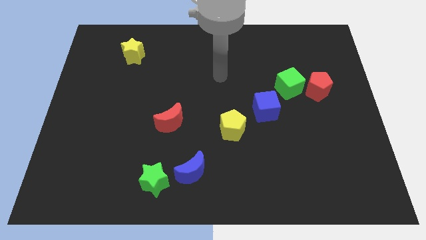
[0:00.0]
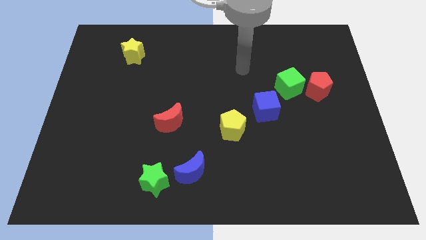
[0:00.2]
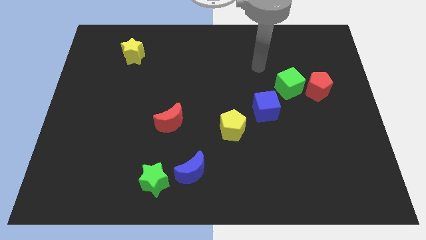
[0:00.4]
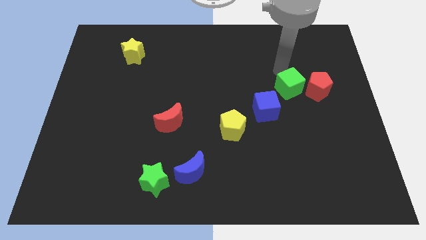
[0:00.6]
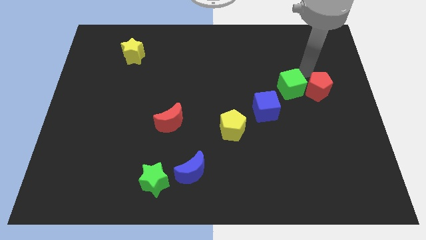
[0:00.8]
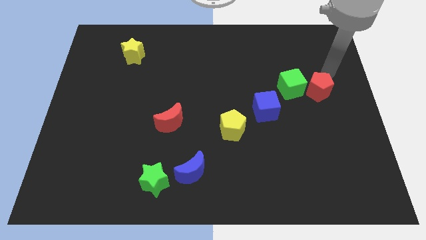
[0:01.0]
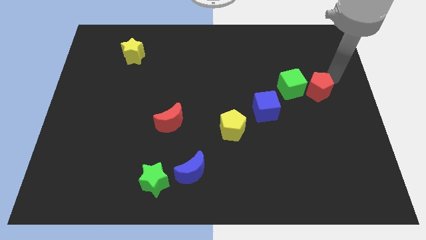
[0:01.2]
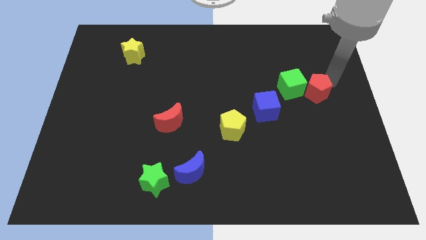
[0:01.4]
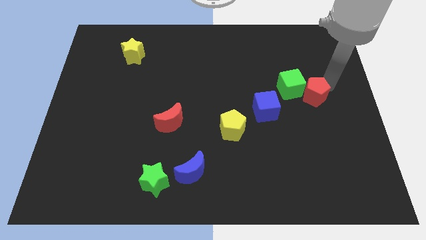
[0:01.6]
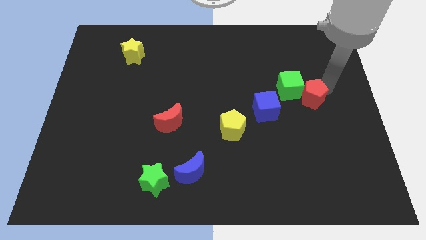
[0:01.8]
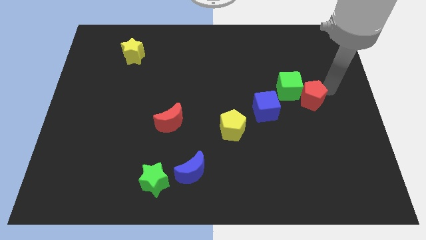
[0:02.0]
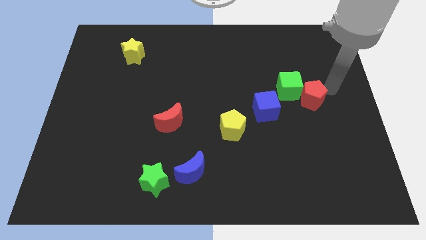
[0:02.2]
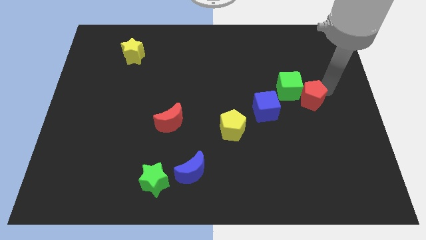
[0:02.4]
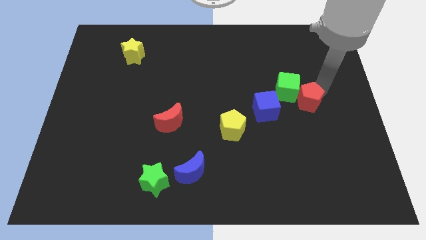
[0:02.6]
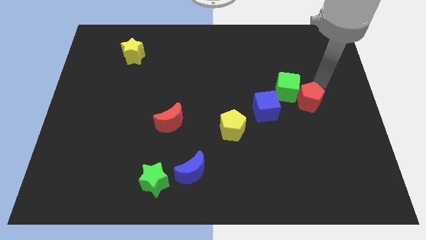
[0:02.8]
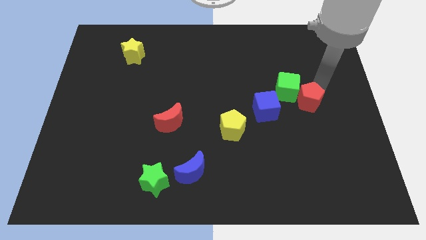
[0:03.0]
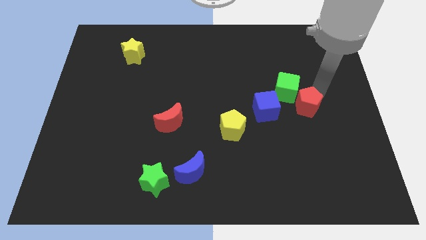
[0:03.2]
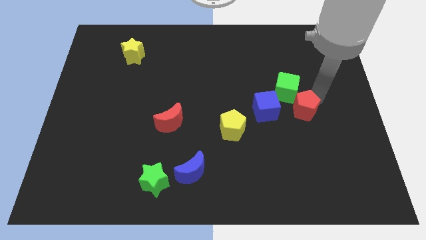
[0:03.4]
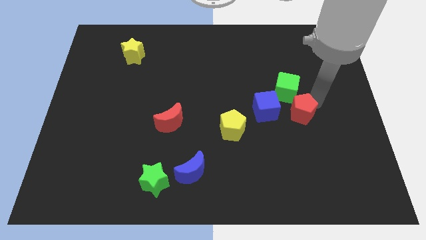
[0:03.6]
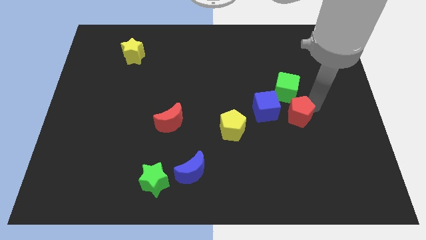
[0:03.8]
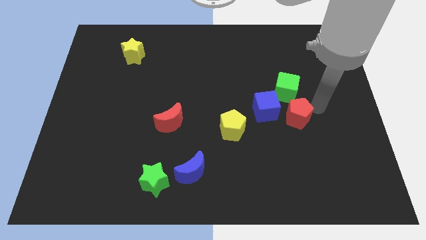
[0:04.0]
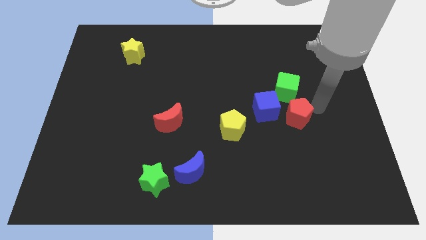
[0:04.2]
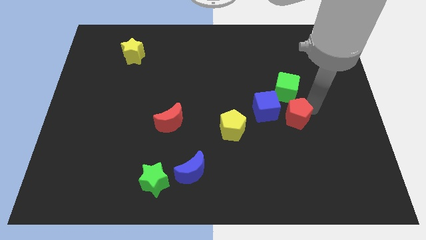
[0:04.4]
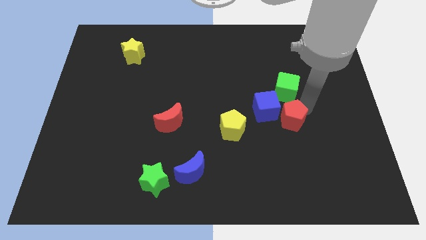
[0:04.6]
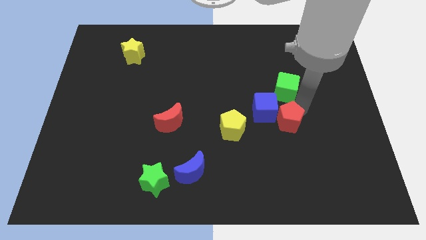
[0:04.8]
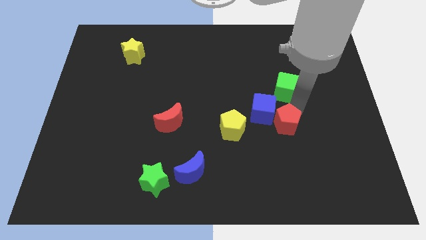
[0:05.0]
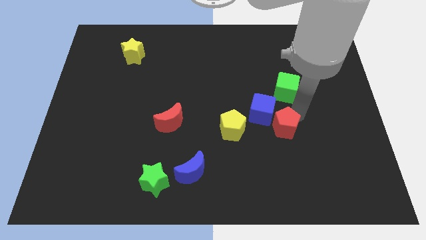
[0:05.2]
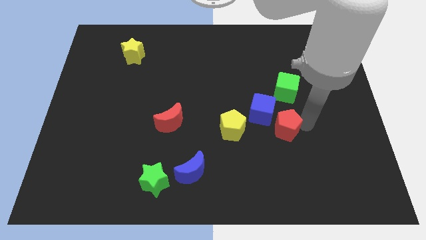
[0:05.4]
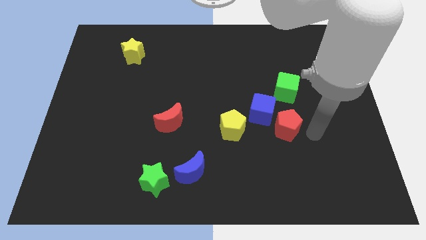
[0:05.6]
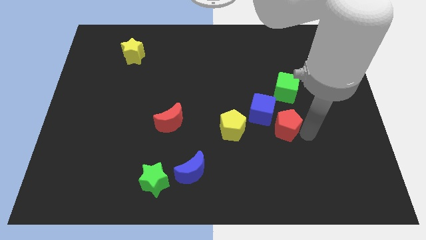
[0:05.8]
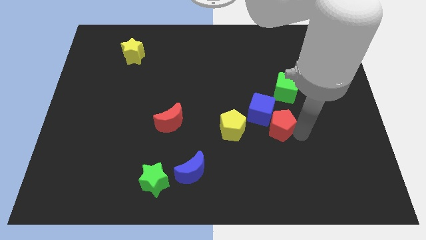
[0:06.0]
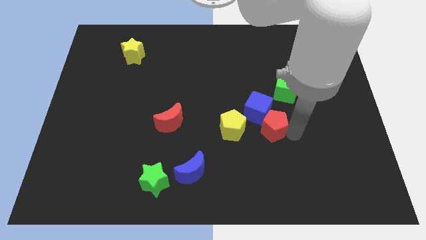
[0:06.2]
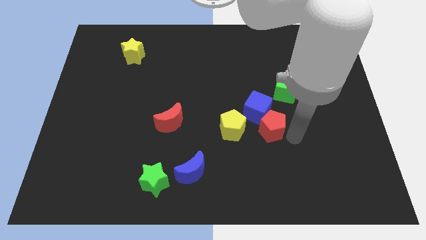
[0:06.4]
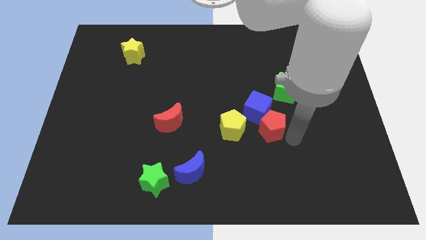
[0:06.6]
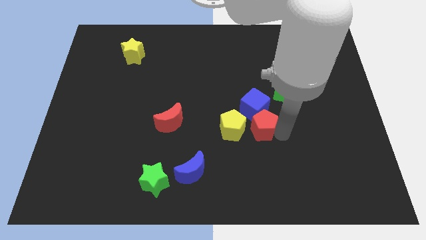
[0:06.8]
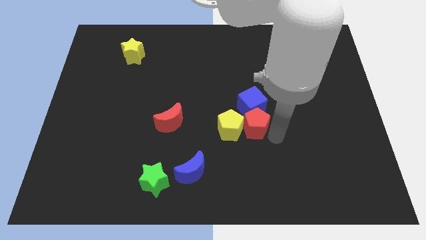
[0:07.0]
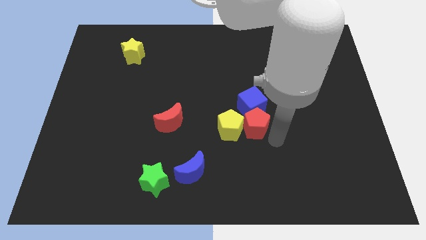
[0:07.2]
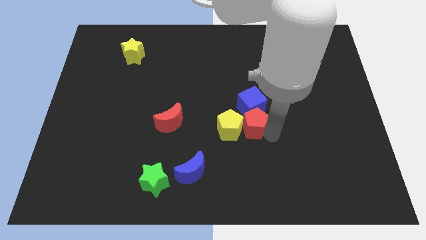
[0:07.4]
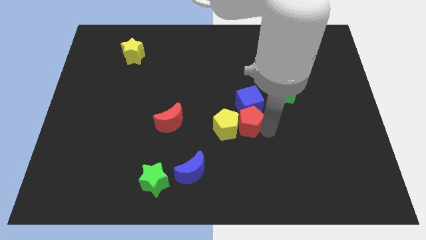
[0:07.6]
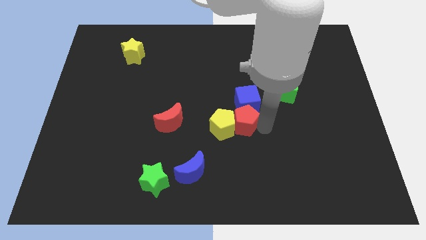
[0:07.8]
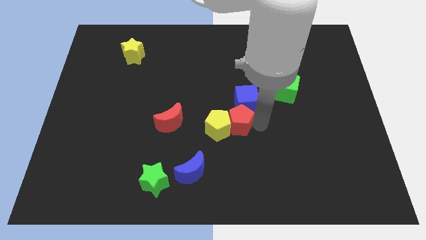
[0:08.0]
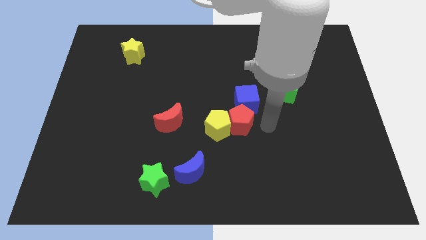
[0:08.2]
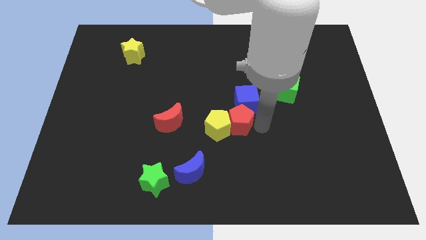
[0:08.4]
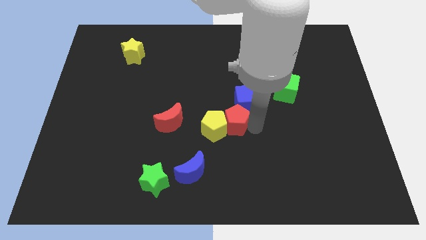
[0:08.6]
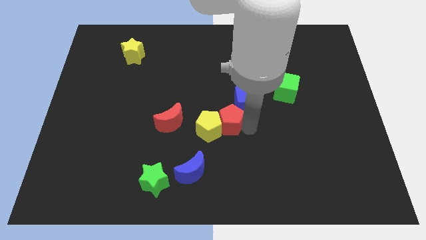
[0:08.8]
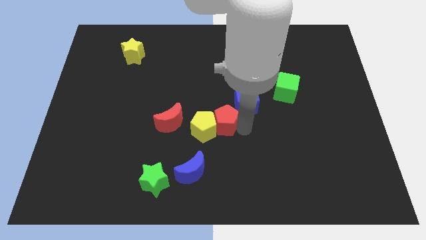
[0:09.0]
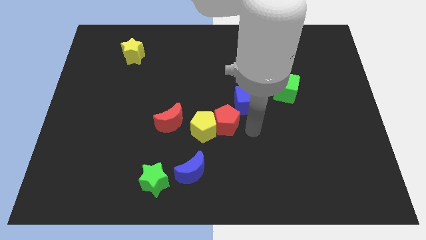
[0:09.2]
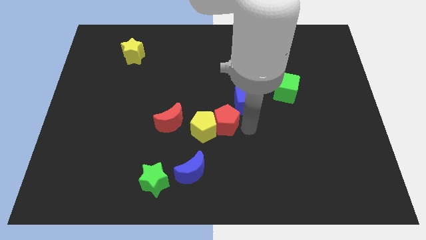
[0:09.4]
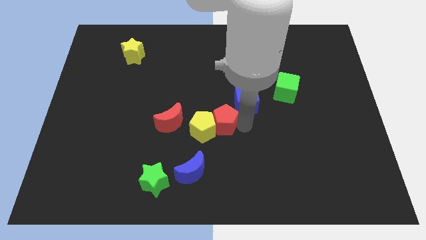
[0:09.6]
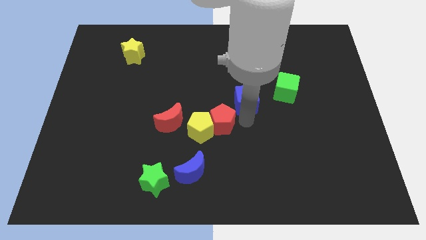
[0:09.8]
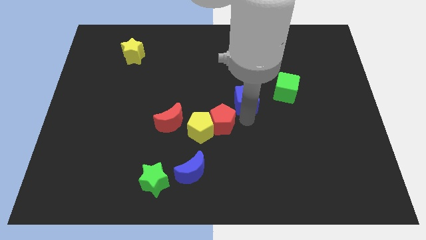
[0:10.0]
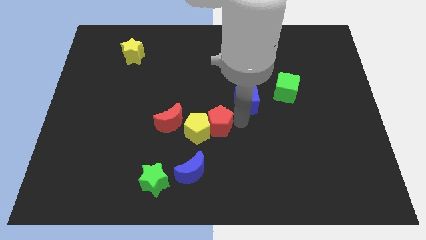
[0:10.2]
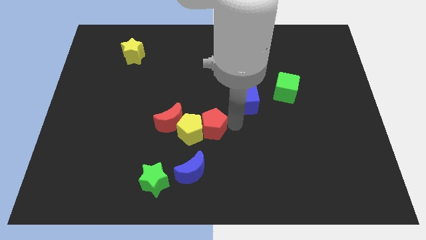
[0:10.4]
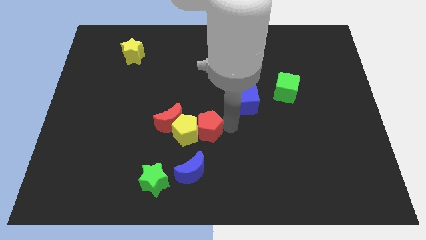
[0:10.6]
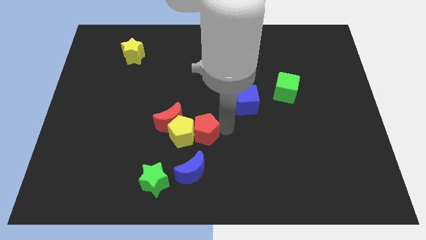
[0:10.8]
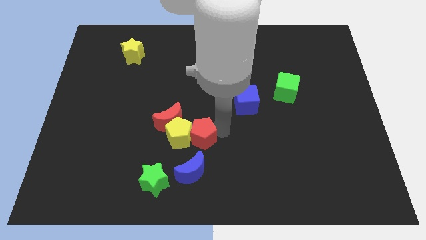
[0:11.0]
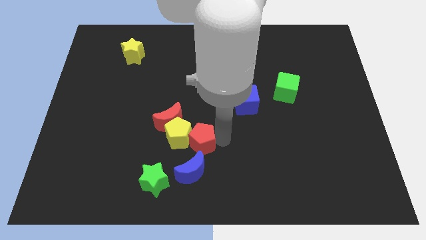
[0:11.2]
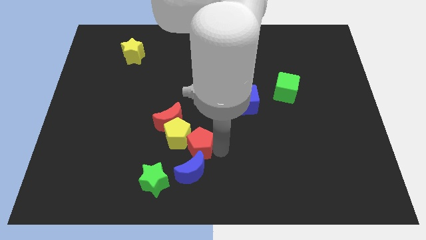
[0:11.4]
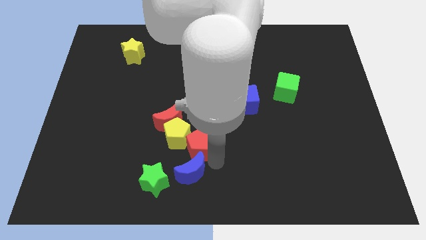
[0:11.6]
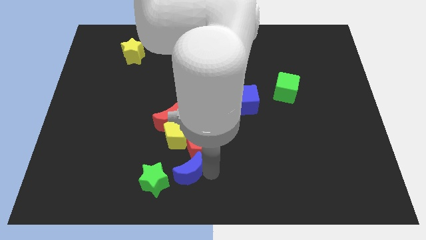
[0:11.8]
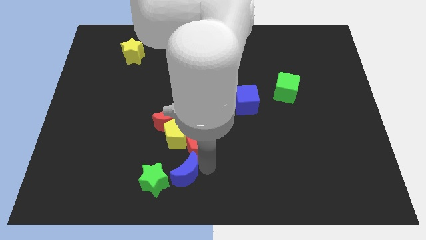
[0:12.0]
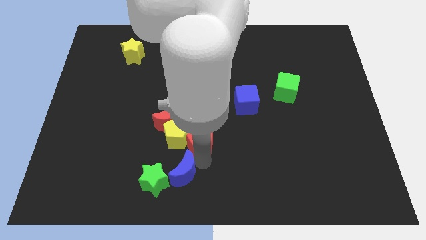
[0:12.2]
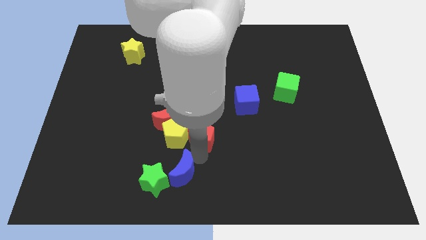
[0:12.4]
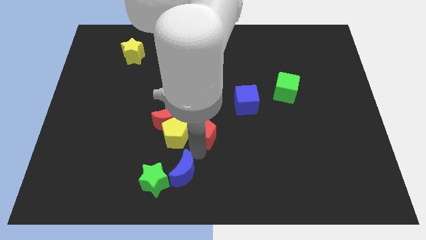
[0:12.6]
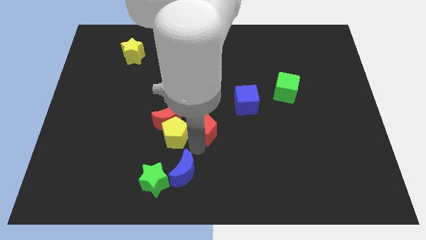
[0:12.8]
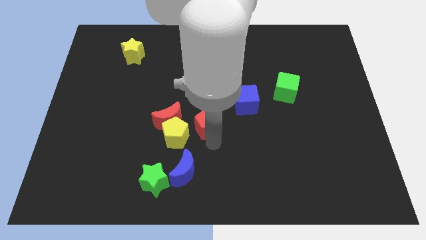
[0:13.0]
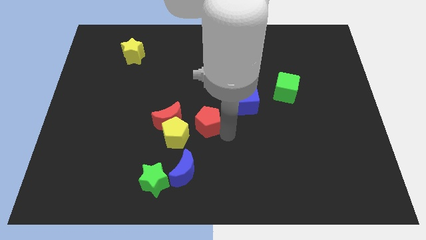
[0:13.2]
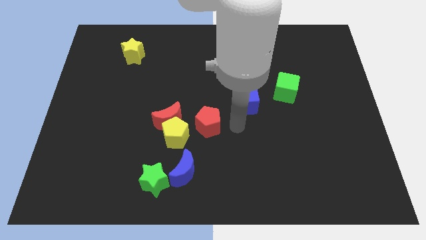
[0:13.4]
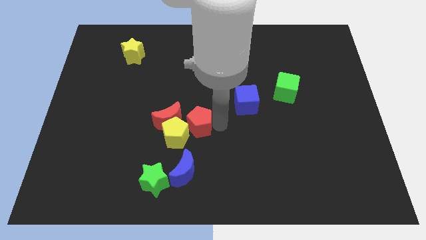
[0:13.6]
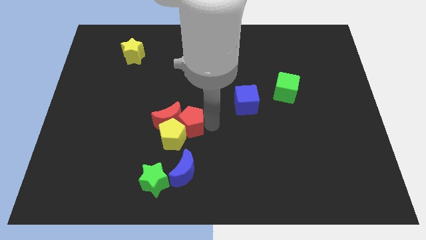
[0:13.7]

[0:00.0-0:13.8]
push the red pentagon next to the red moon
